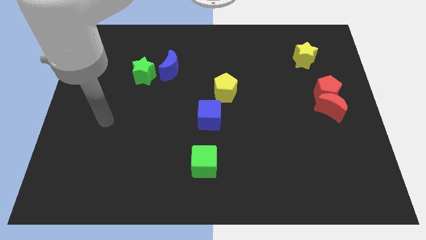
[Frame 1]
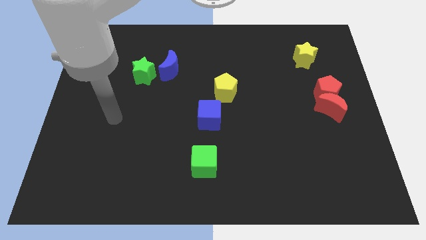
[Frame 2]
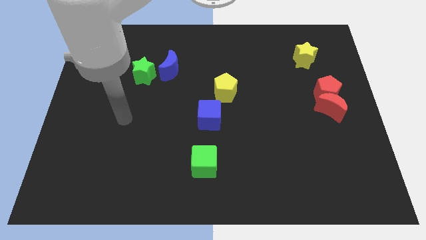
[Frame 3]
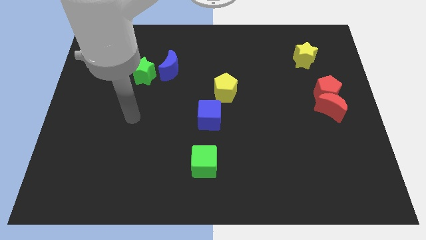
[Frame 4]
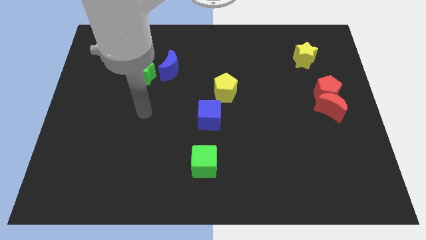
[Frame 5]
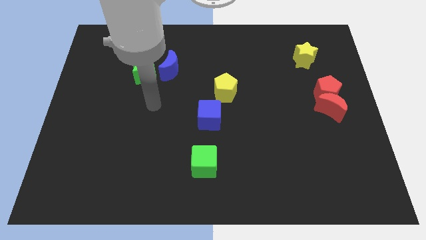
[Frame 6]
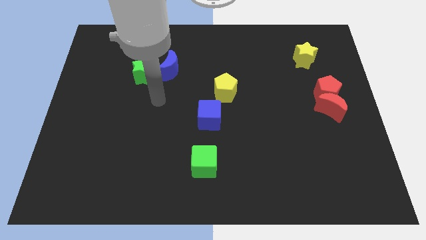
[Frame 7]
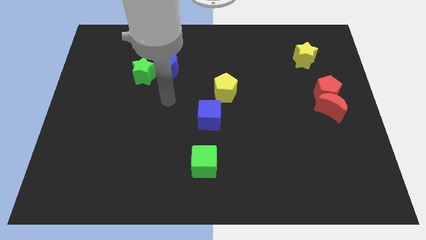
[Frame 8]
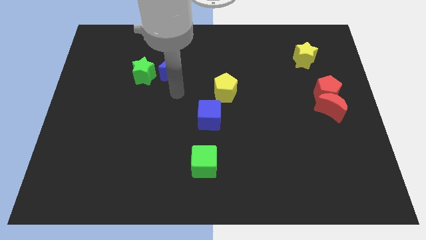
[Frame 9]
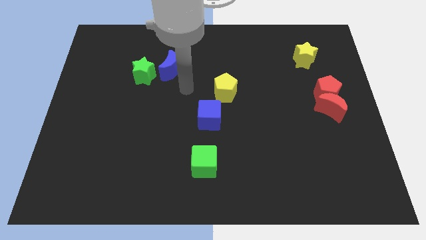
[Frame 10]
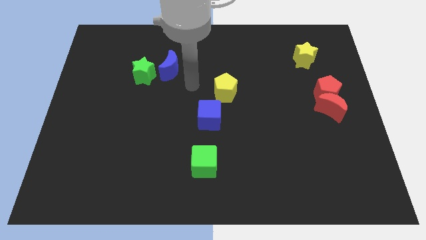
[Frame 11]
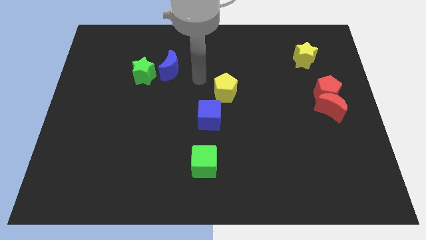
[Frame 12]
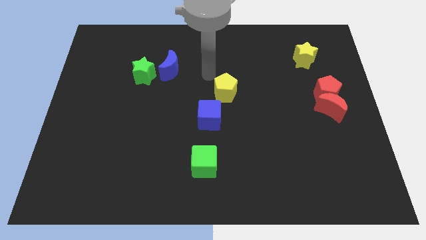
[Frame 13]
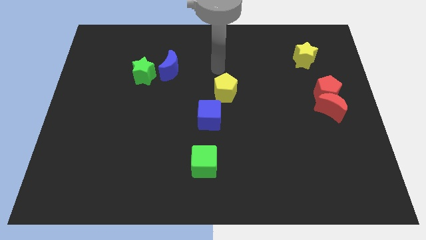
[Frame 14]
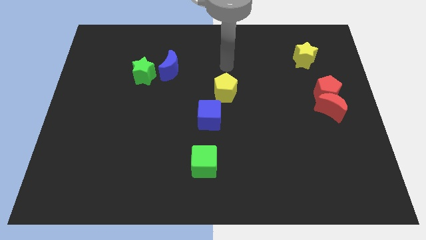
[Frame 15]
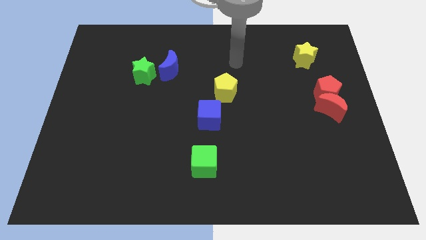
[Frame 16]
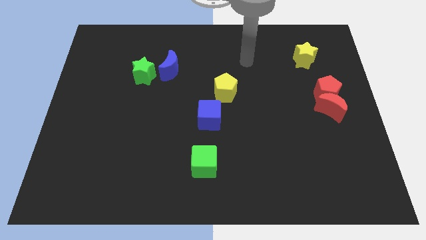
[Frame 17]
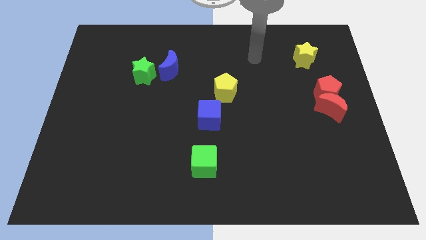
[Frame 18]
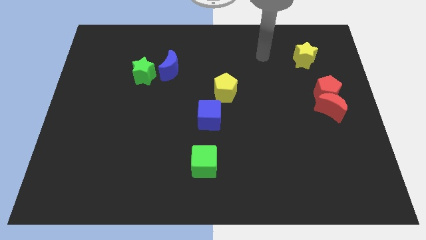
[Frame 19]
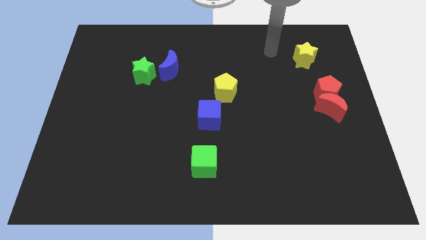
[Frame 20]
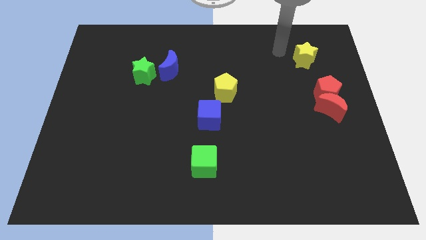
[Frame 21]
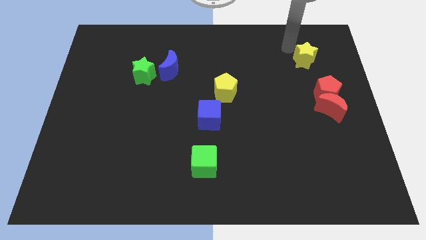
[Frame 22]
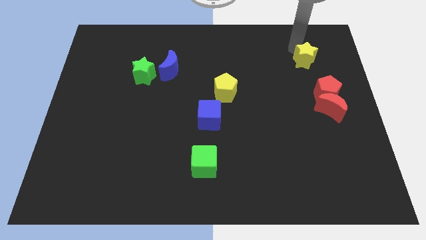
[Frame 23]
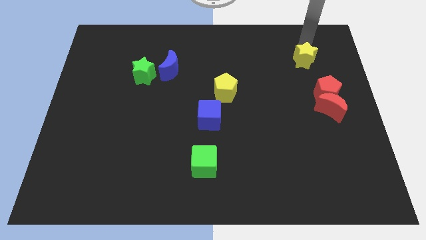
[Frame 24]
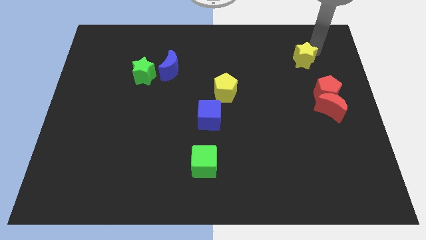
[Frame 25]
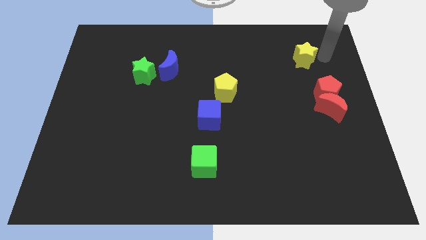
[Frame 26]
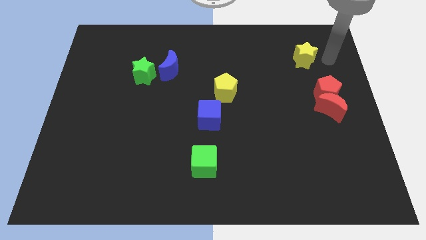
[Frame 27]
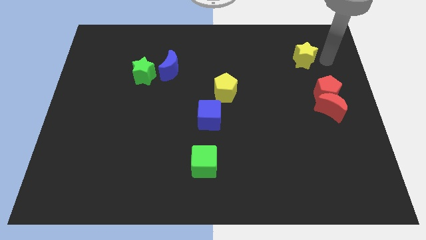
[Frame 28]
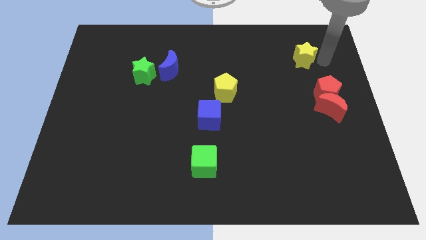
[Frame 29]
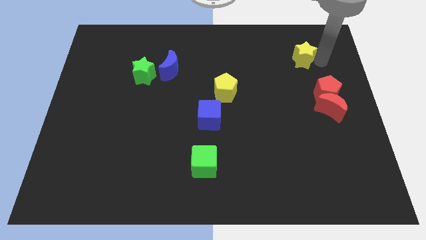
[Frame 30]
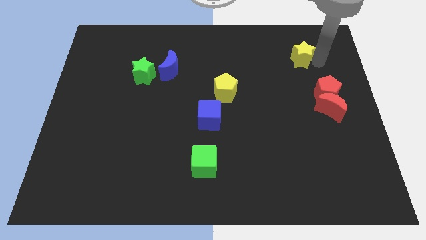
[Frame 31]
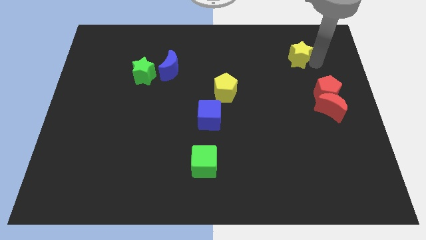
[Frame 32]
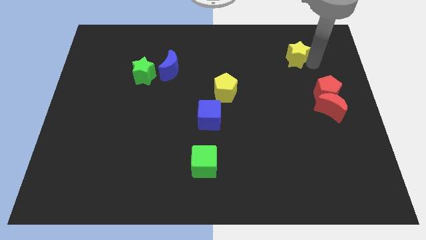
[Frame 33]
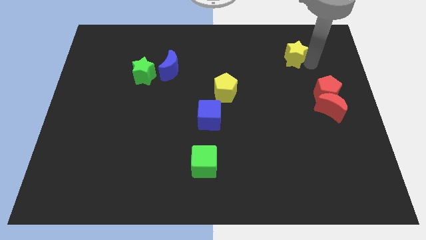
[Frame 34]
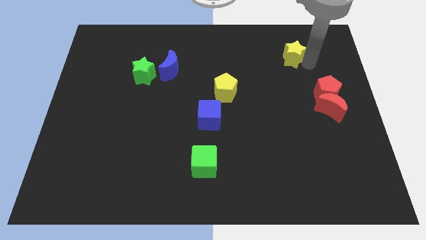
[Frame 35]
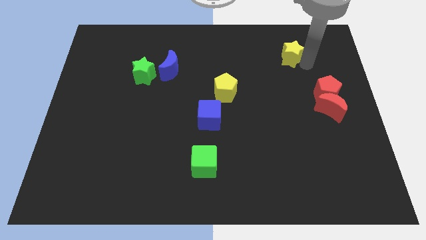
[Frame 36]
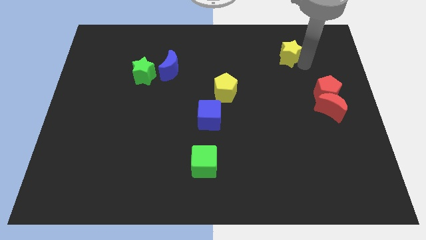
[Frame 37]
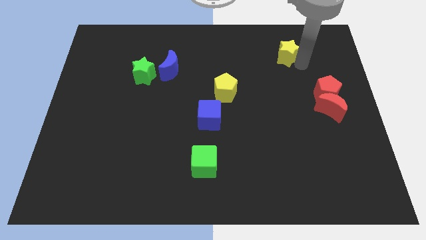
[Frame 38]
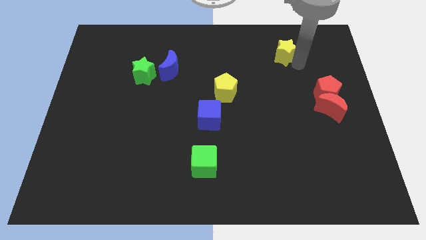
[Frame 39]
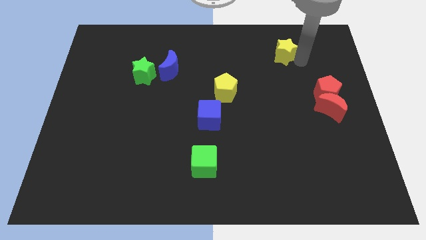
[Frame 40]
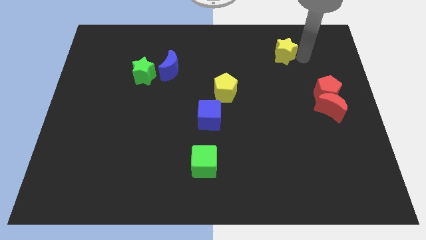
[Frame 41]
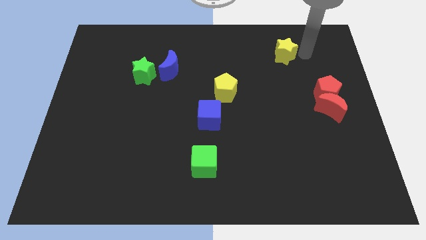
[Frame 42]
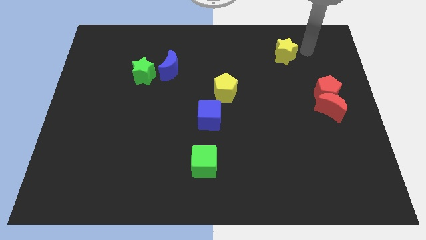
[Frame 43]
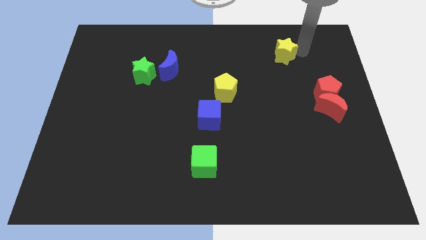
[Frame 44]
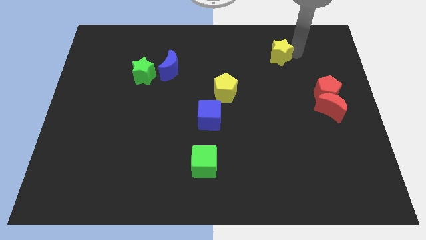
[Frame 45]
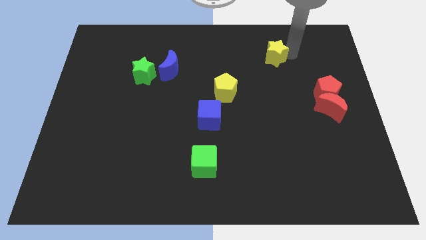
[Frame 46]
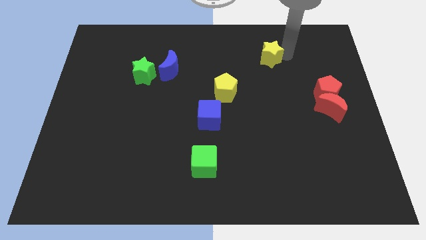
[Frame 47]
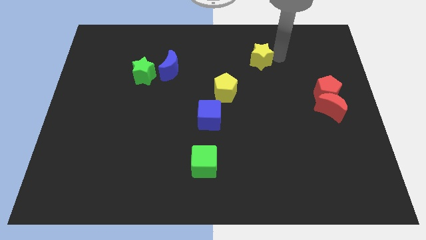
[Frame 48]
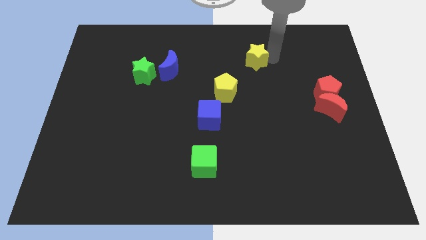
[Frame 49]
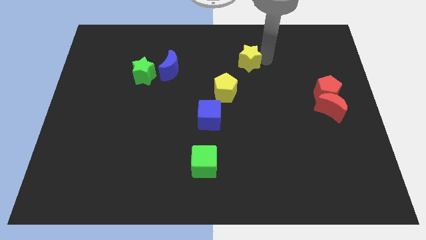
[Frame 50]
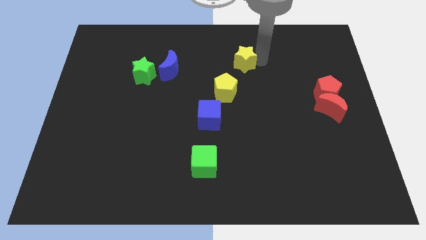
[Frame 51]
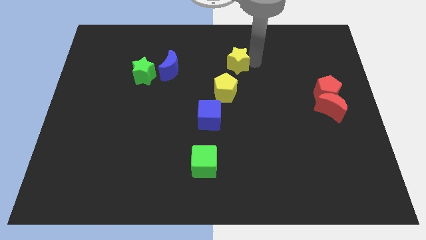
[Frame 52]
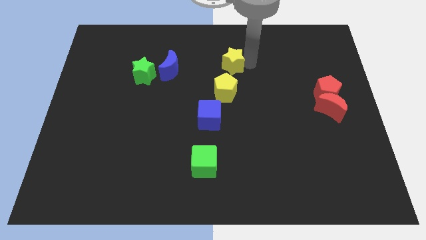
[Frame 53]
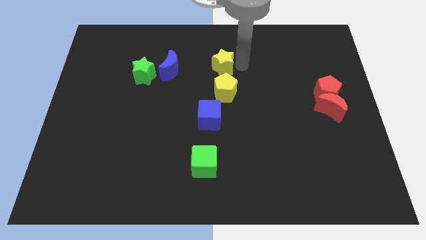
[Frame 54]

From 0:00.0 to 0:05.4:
move the yellow star left

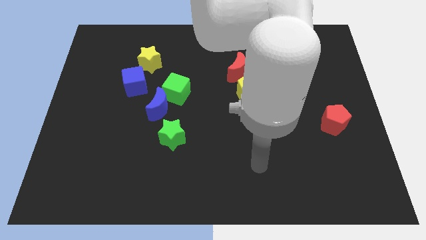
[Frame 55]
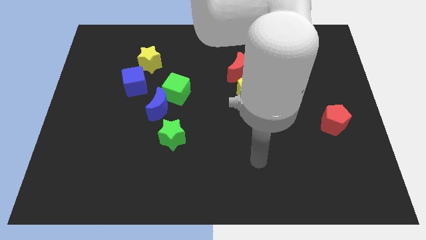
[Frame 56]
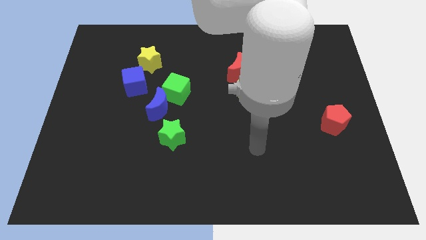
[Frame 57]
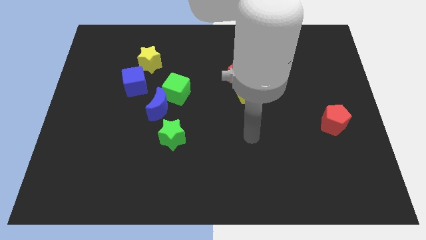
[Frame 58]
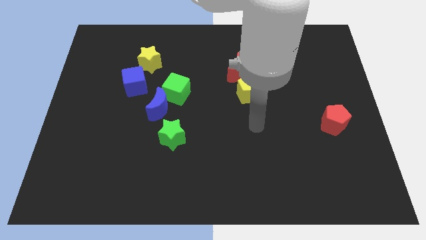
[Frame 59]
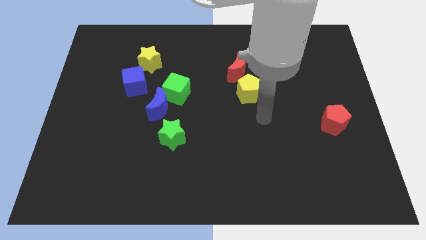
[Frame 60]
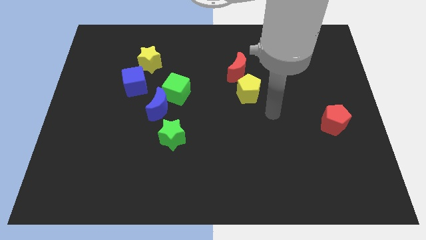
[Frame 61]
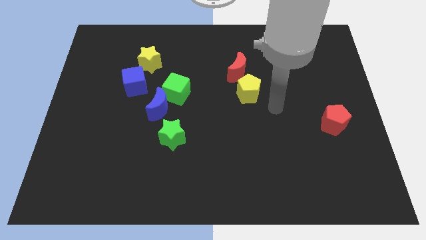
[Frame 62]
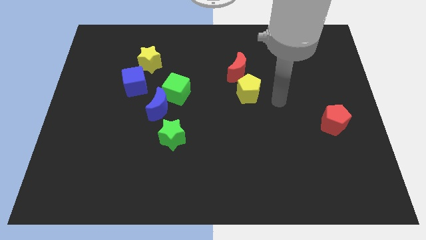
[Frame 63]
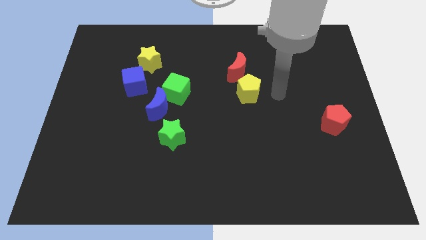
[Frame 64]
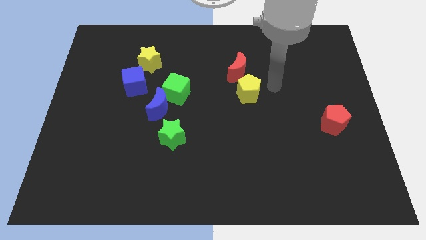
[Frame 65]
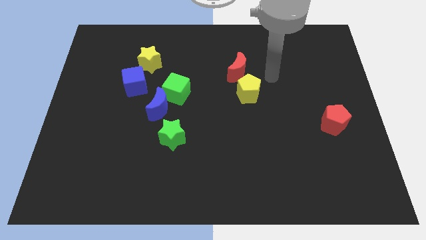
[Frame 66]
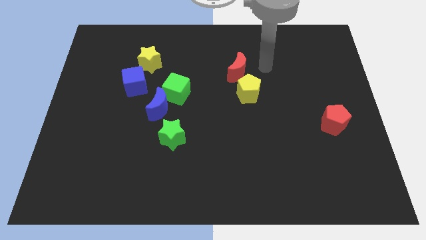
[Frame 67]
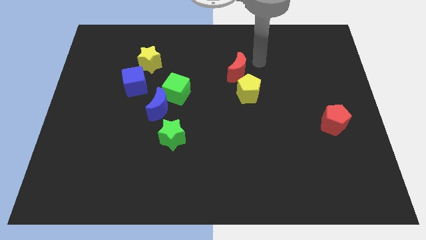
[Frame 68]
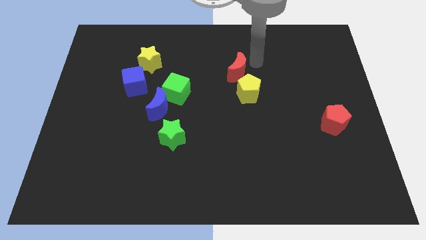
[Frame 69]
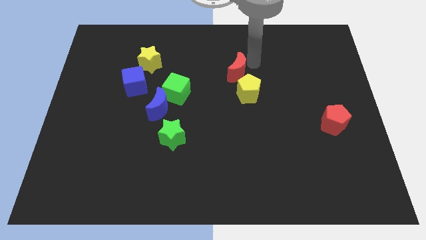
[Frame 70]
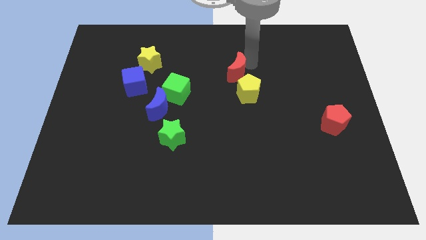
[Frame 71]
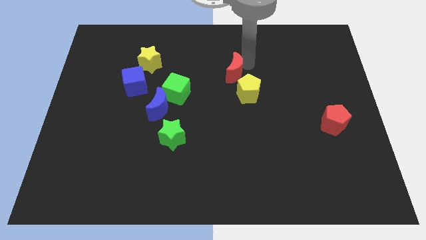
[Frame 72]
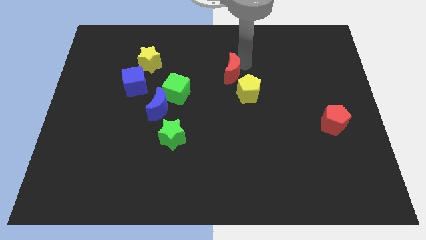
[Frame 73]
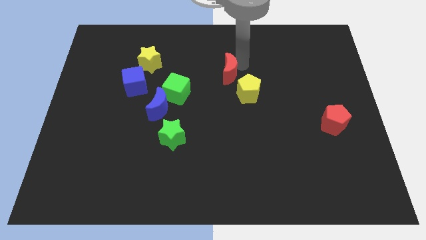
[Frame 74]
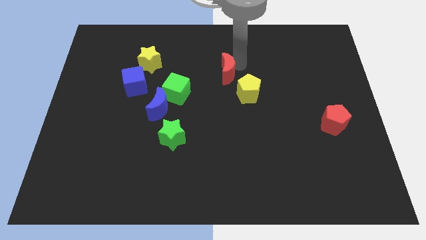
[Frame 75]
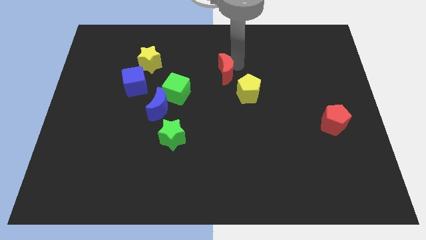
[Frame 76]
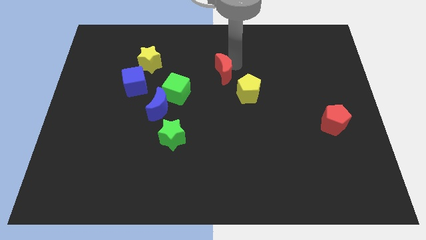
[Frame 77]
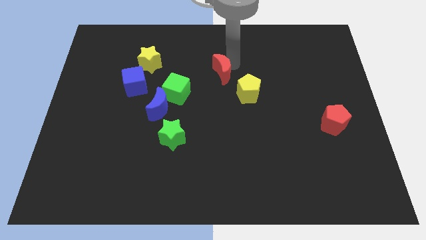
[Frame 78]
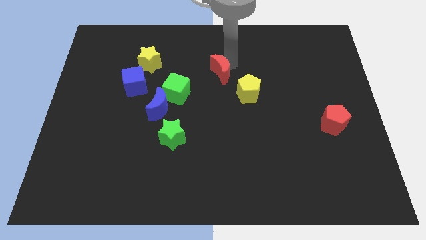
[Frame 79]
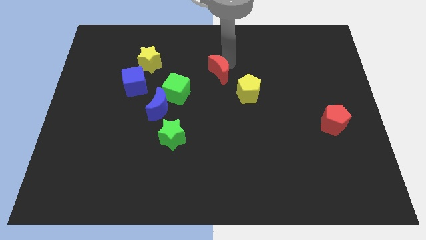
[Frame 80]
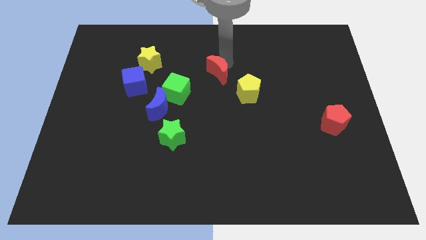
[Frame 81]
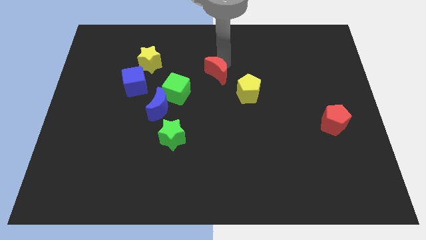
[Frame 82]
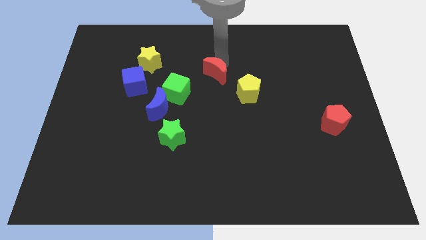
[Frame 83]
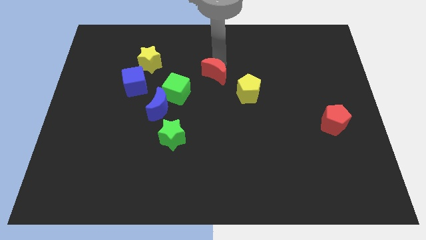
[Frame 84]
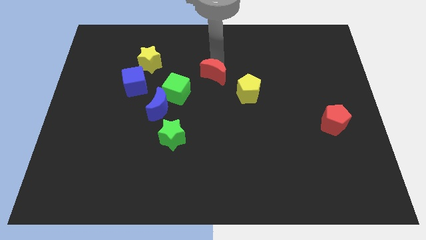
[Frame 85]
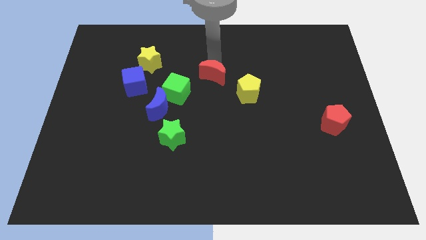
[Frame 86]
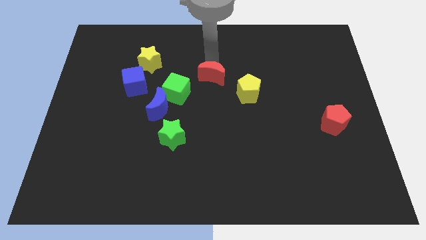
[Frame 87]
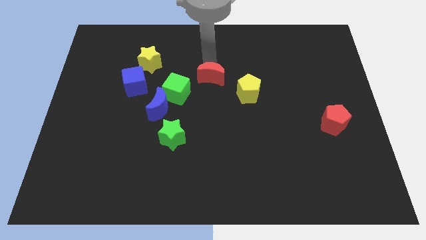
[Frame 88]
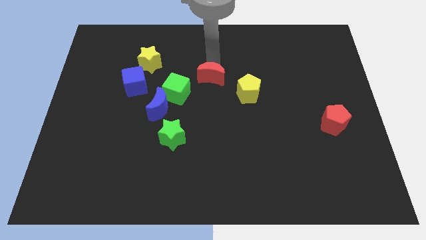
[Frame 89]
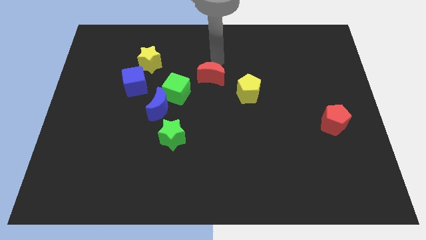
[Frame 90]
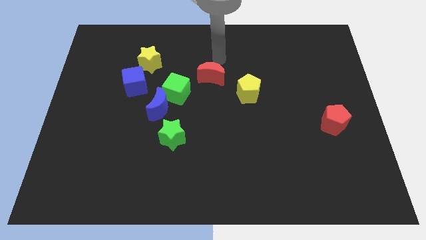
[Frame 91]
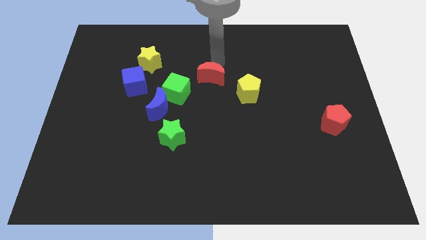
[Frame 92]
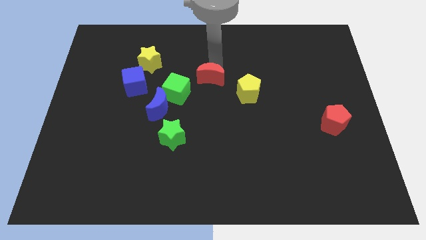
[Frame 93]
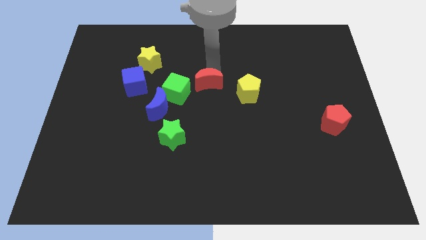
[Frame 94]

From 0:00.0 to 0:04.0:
push the red moon slightly diagonally down and left
